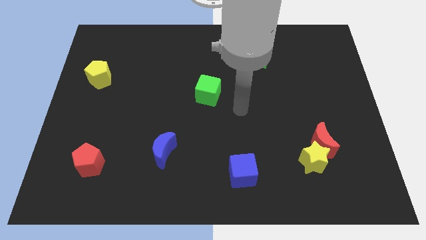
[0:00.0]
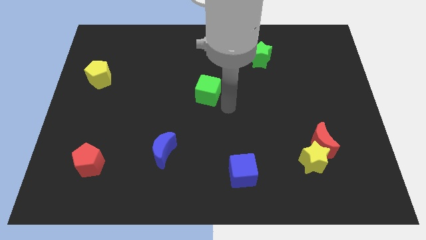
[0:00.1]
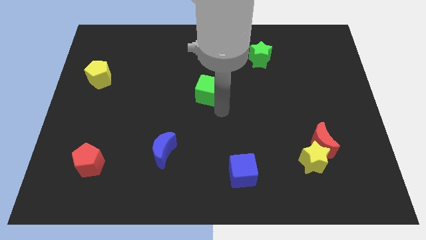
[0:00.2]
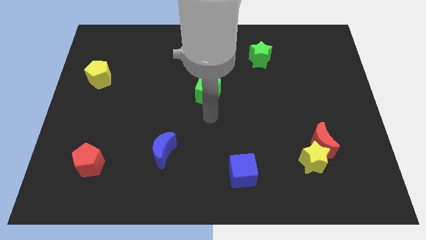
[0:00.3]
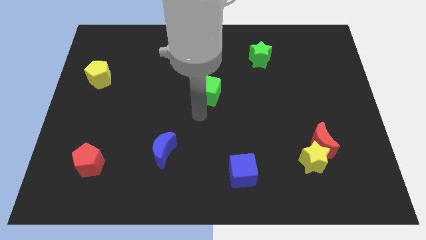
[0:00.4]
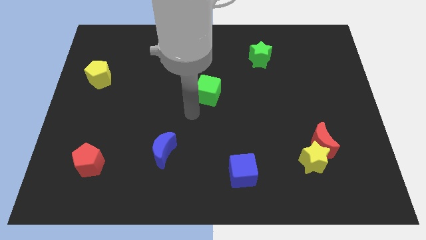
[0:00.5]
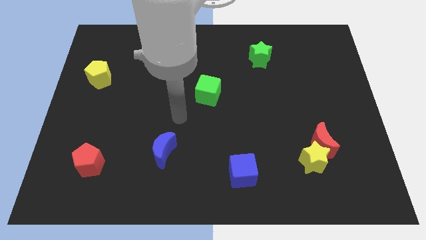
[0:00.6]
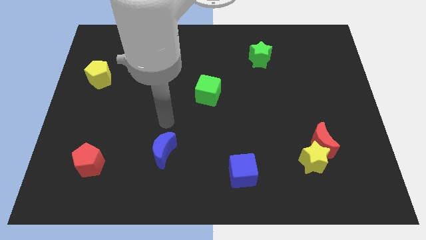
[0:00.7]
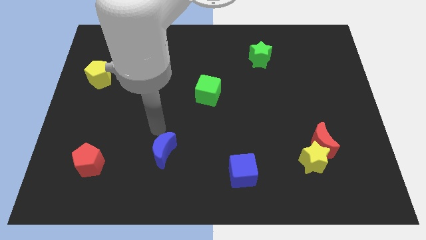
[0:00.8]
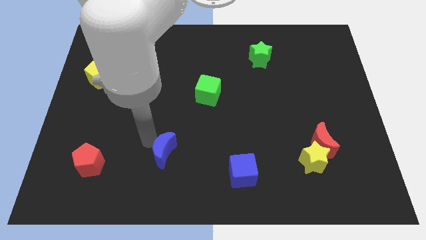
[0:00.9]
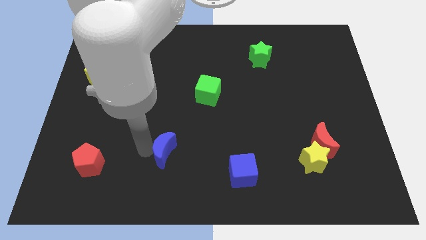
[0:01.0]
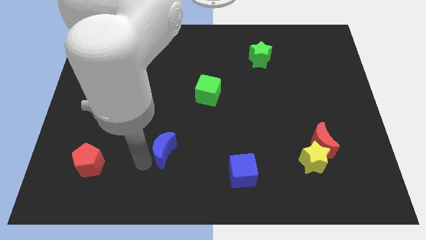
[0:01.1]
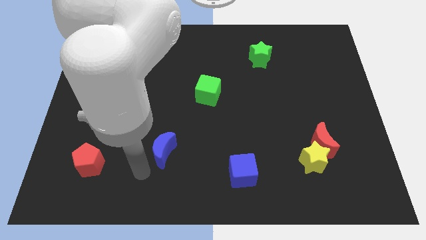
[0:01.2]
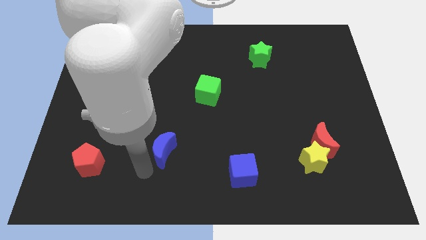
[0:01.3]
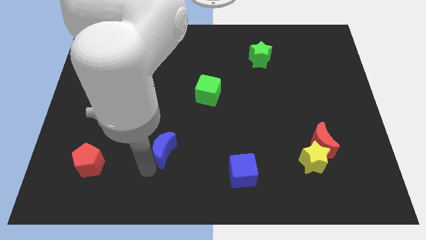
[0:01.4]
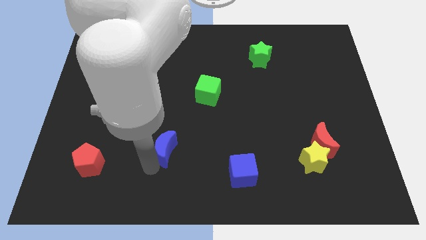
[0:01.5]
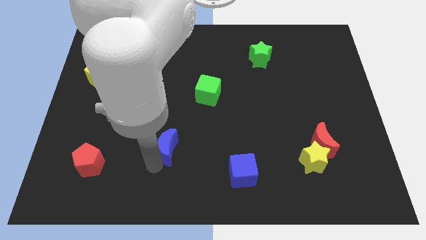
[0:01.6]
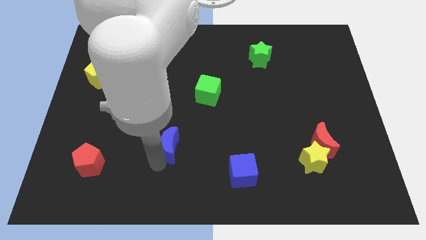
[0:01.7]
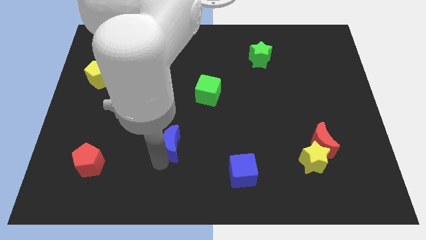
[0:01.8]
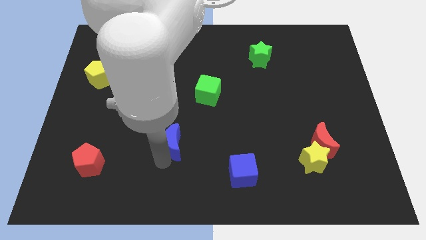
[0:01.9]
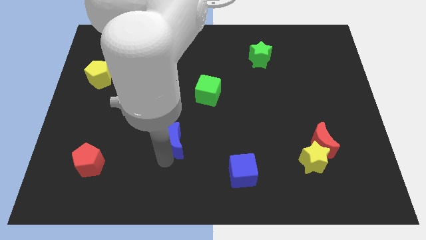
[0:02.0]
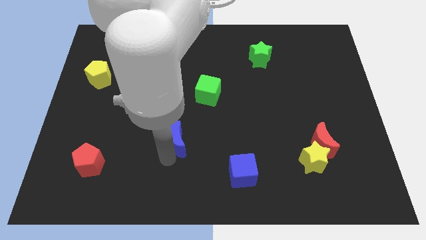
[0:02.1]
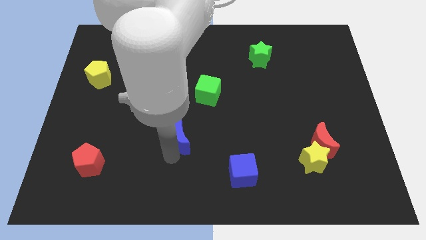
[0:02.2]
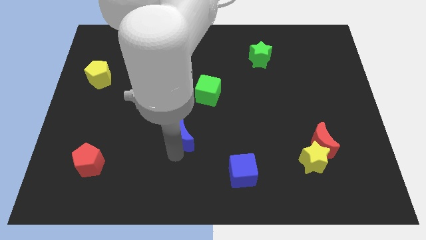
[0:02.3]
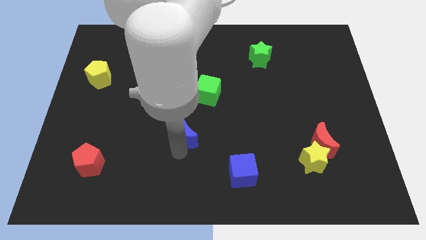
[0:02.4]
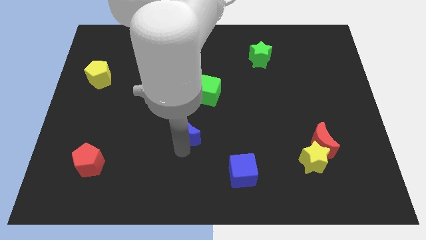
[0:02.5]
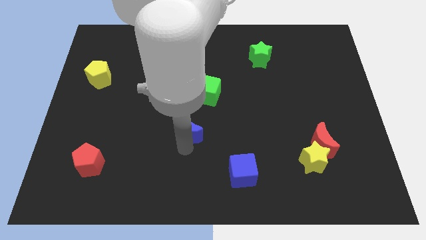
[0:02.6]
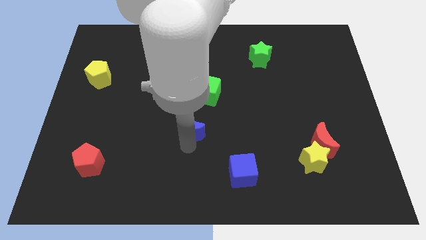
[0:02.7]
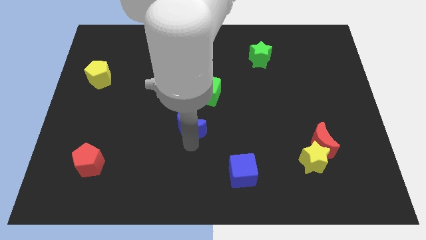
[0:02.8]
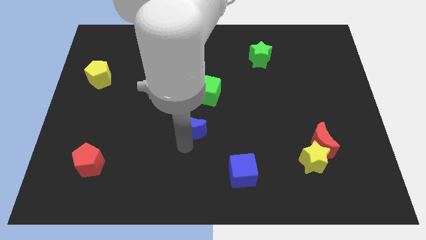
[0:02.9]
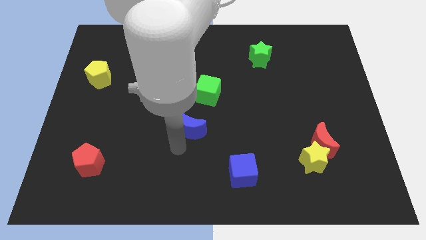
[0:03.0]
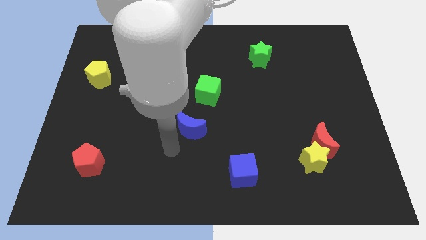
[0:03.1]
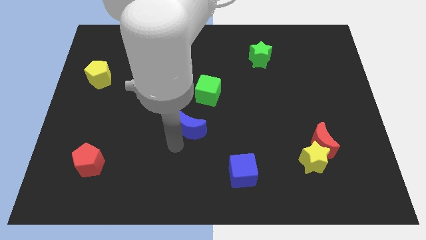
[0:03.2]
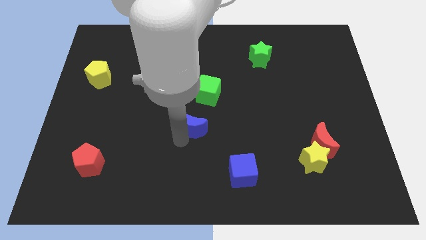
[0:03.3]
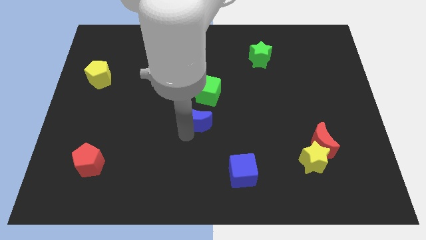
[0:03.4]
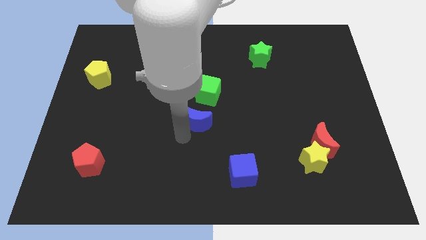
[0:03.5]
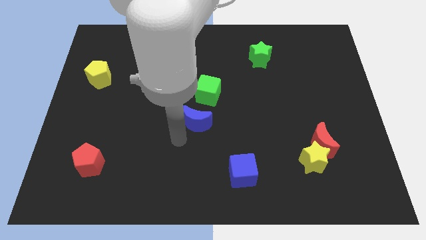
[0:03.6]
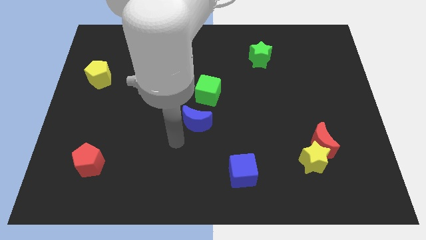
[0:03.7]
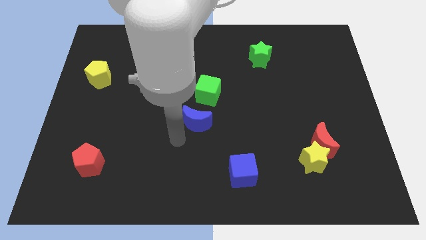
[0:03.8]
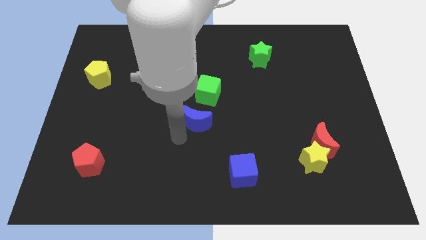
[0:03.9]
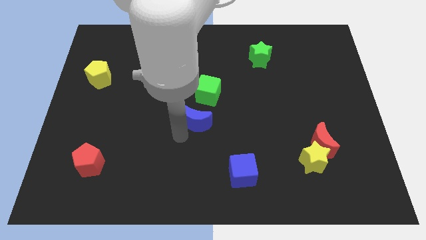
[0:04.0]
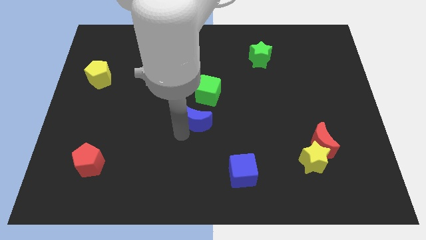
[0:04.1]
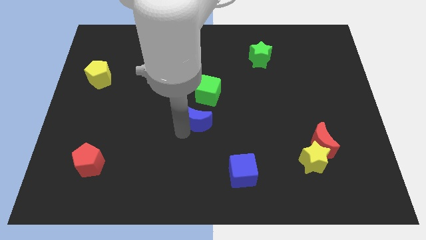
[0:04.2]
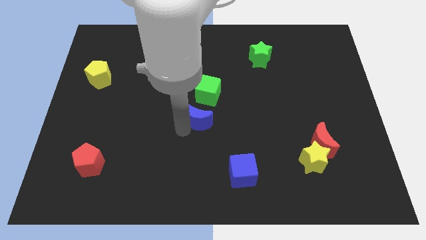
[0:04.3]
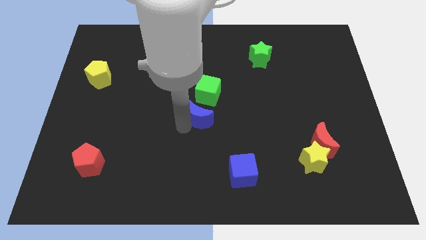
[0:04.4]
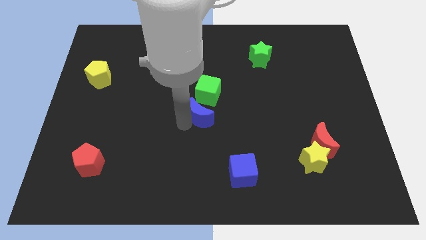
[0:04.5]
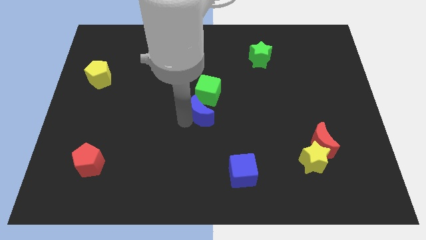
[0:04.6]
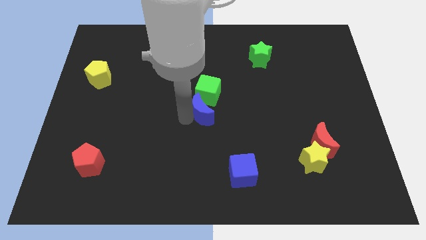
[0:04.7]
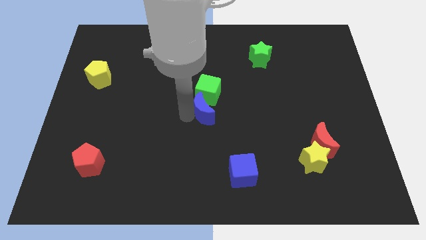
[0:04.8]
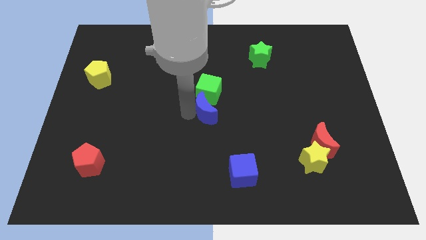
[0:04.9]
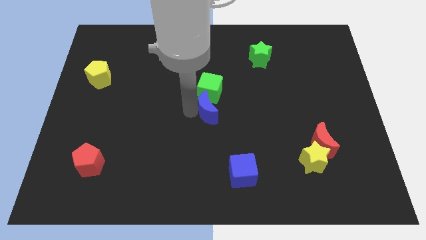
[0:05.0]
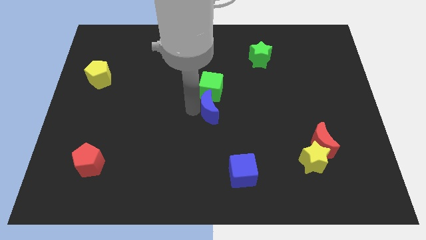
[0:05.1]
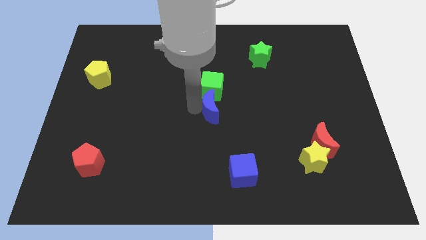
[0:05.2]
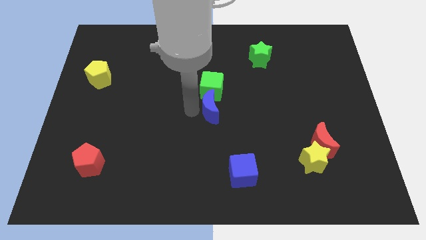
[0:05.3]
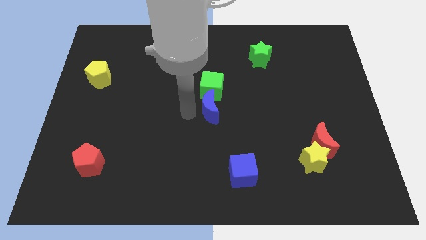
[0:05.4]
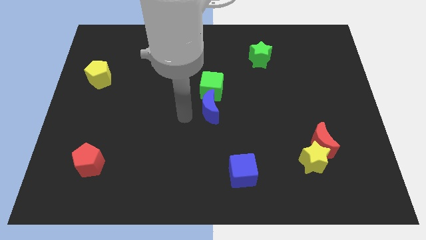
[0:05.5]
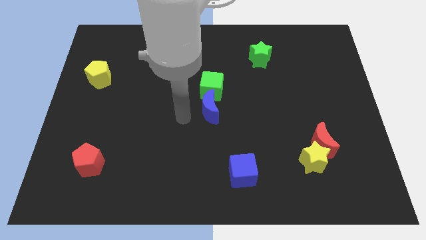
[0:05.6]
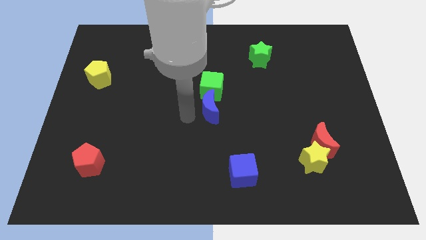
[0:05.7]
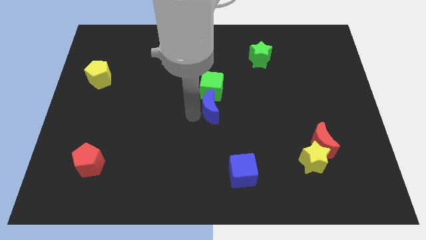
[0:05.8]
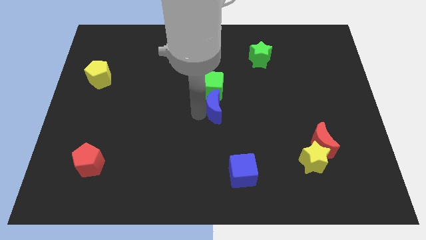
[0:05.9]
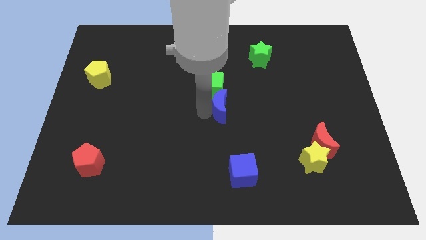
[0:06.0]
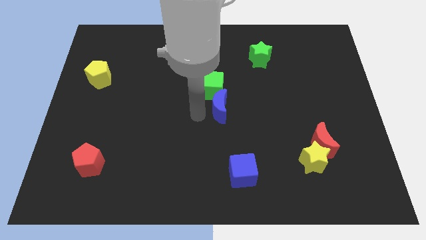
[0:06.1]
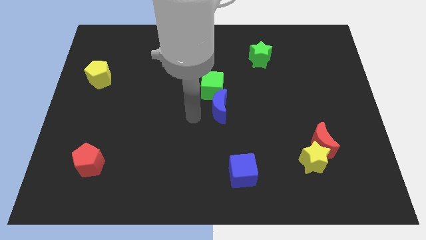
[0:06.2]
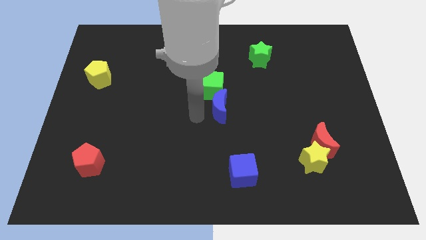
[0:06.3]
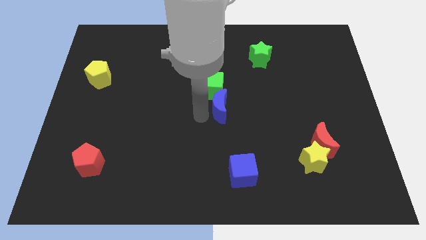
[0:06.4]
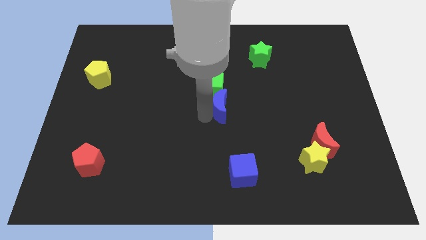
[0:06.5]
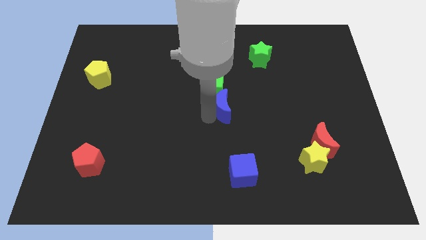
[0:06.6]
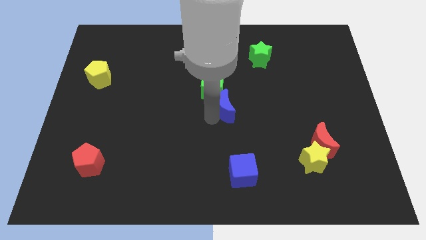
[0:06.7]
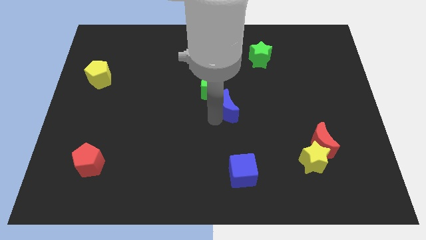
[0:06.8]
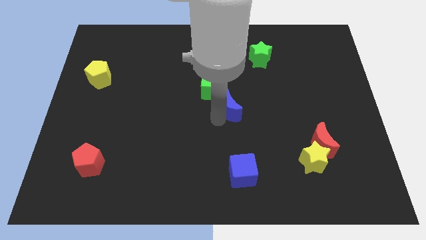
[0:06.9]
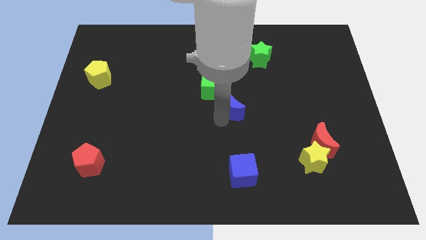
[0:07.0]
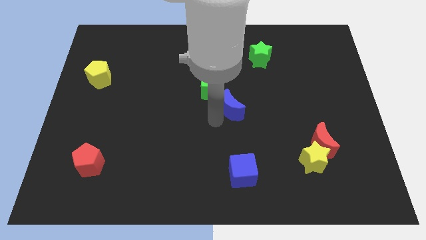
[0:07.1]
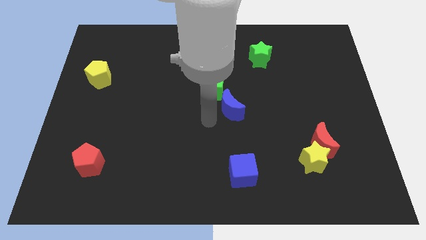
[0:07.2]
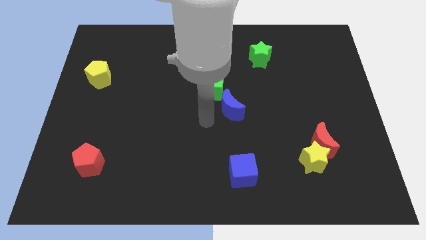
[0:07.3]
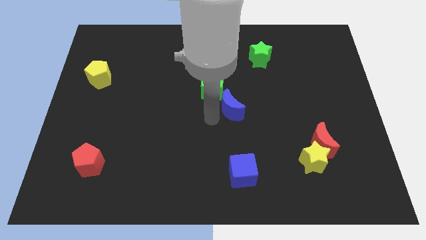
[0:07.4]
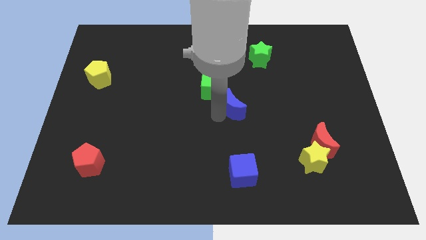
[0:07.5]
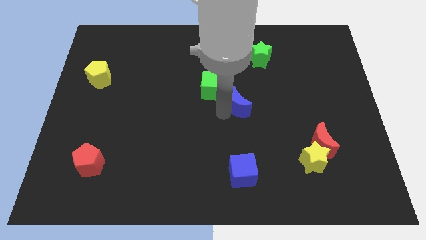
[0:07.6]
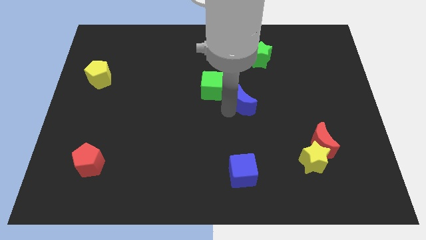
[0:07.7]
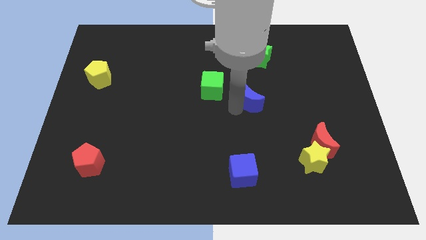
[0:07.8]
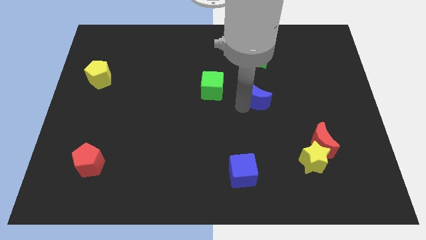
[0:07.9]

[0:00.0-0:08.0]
move the blue moon below the green star
